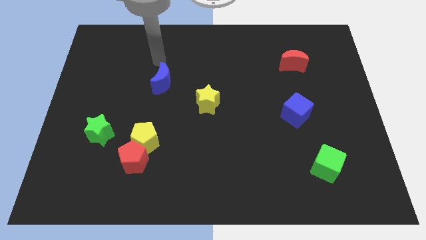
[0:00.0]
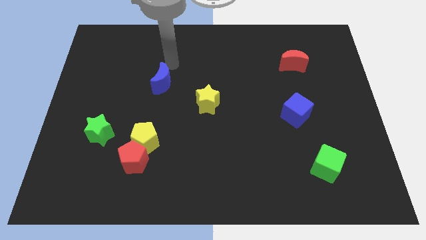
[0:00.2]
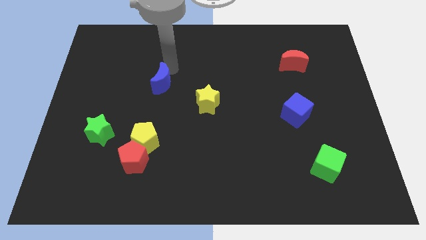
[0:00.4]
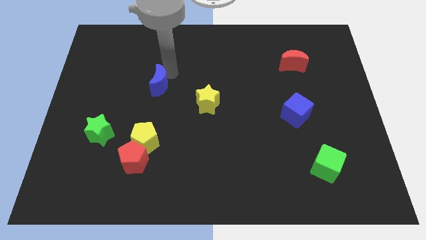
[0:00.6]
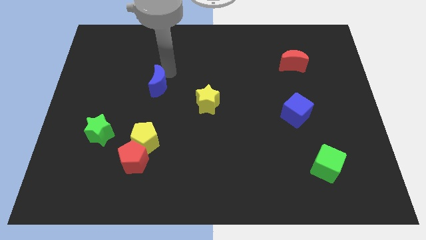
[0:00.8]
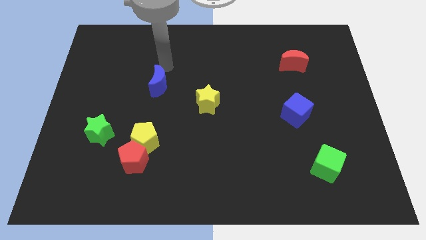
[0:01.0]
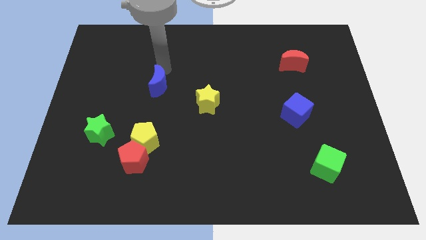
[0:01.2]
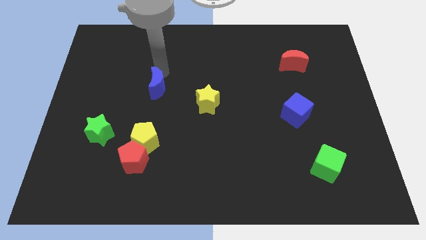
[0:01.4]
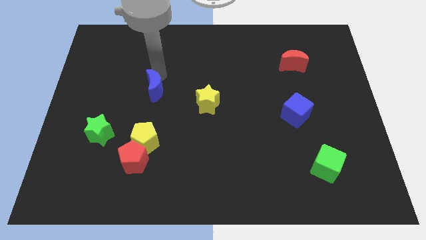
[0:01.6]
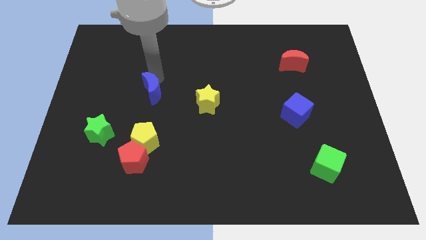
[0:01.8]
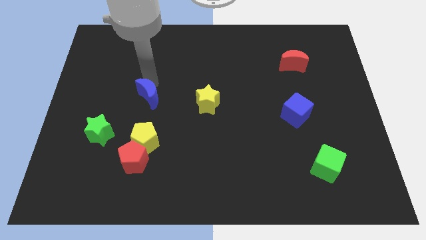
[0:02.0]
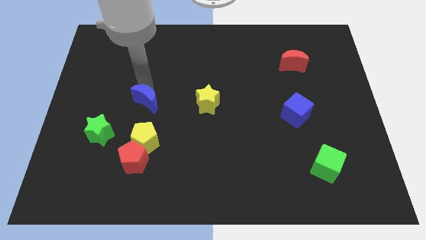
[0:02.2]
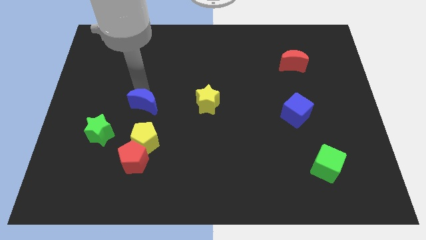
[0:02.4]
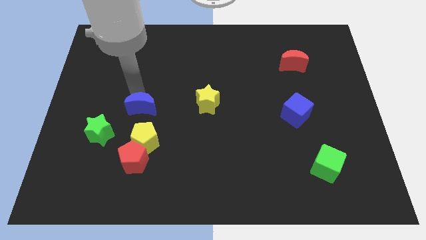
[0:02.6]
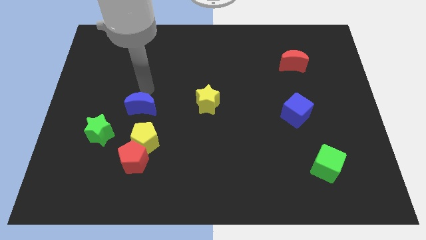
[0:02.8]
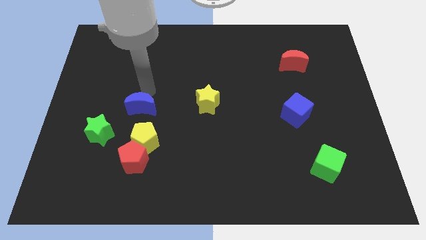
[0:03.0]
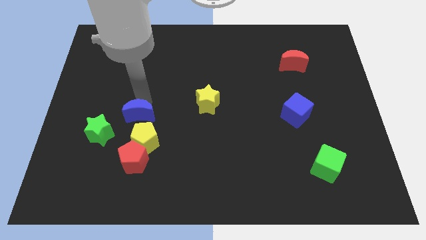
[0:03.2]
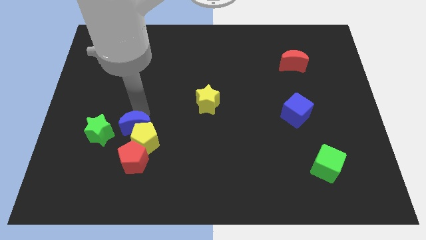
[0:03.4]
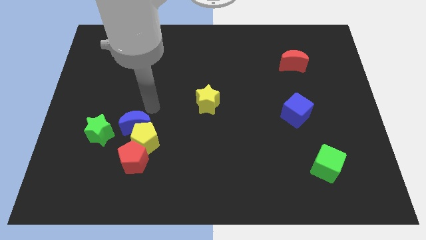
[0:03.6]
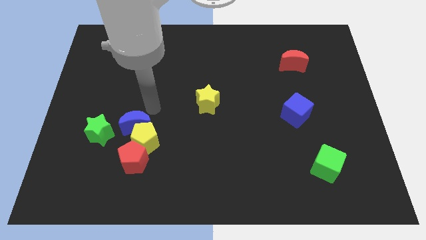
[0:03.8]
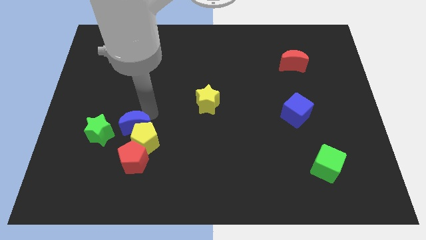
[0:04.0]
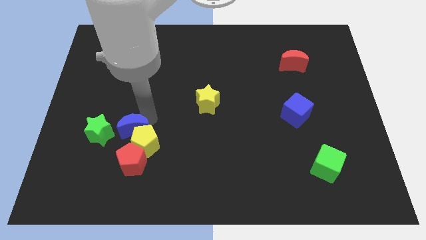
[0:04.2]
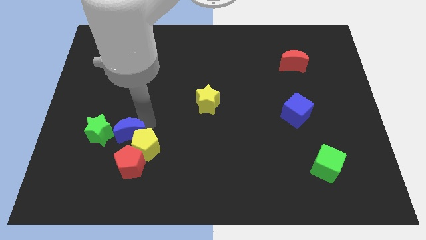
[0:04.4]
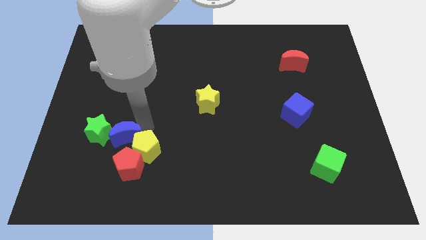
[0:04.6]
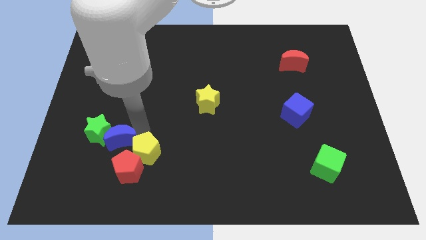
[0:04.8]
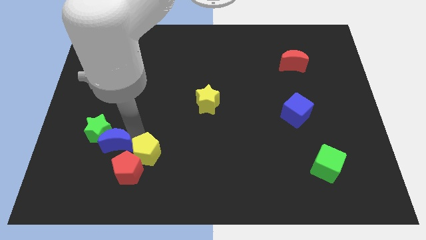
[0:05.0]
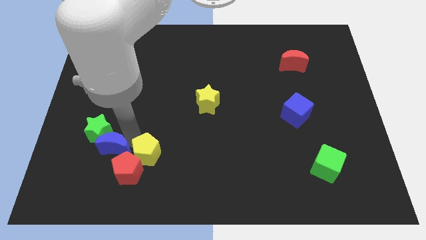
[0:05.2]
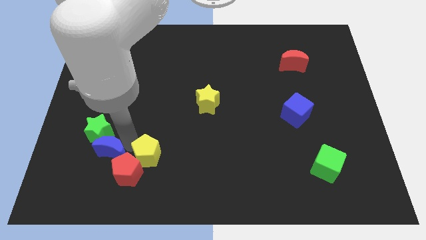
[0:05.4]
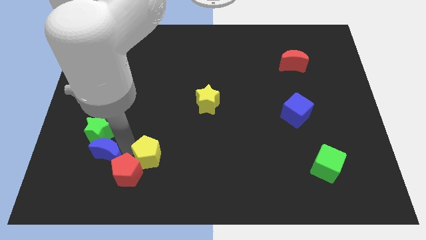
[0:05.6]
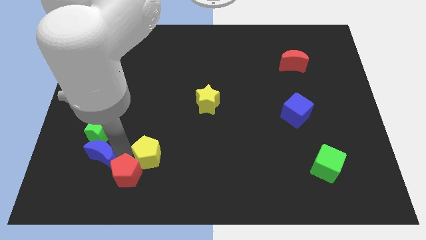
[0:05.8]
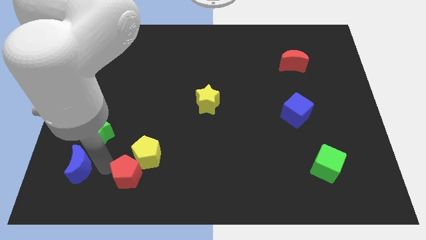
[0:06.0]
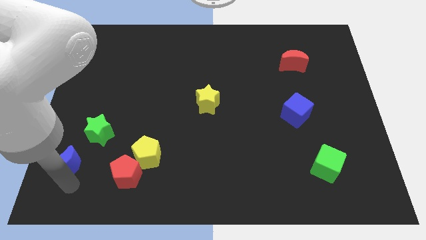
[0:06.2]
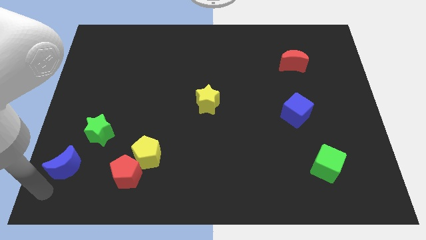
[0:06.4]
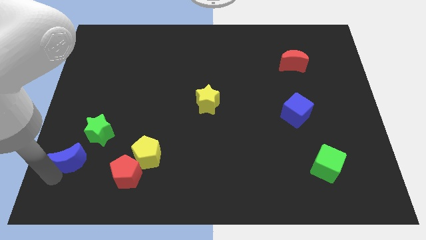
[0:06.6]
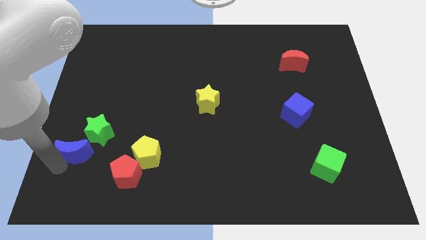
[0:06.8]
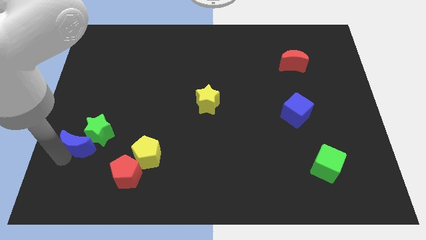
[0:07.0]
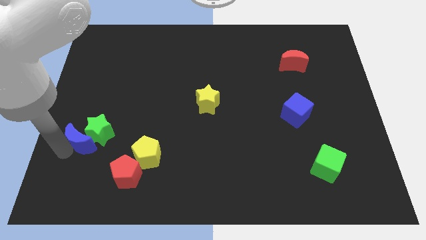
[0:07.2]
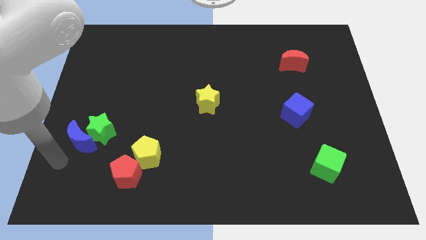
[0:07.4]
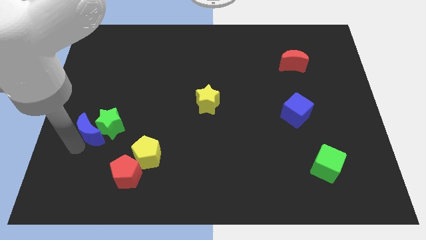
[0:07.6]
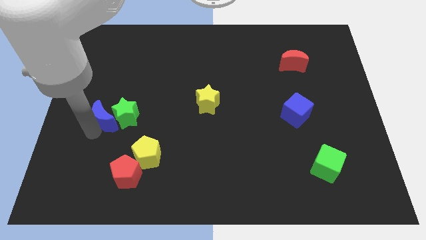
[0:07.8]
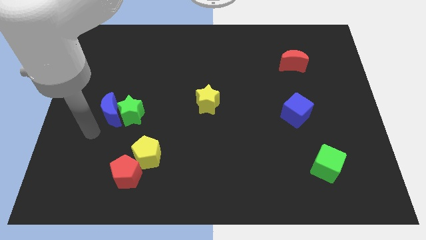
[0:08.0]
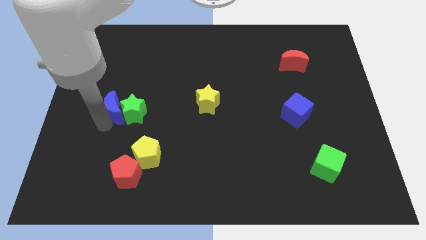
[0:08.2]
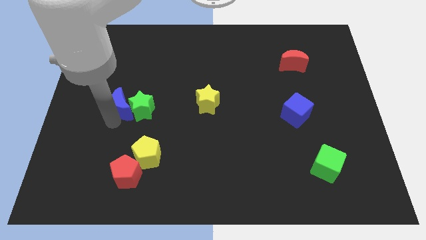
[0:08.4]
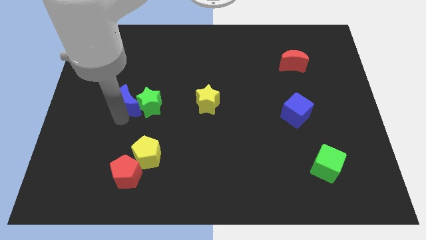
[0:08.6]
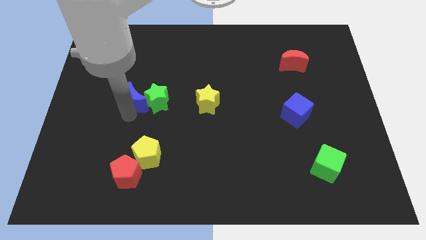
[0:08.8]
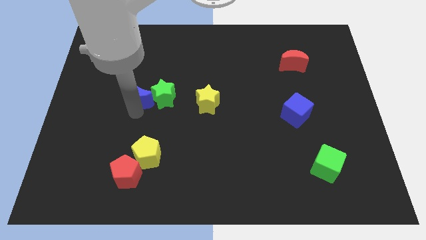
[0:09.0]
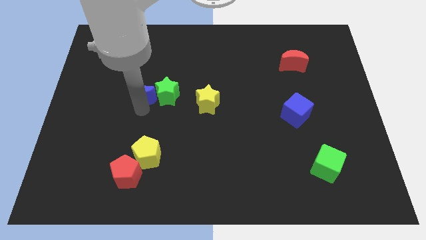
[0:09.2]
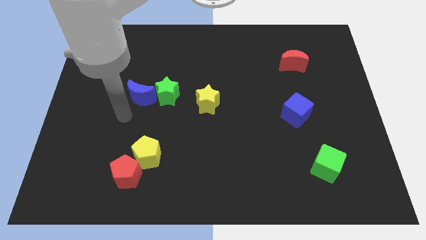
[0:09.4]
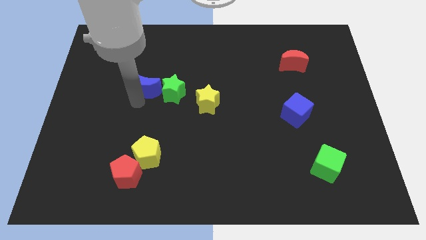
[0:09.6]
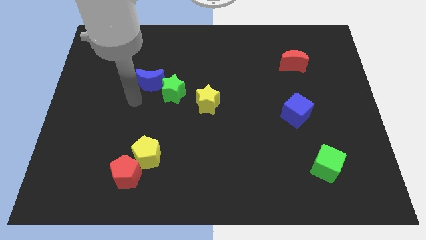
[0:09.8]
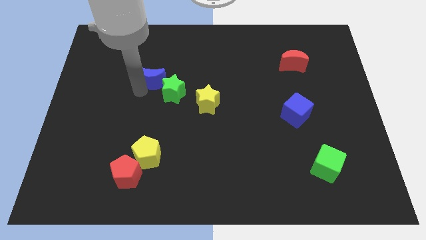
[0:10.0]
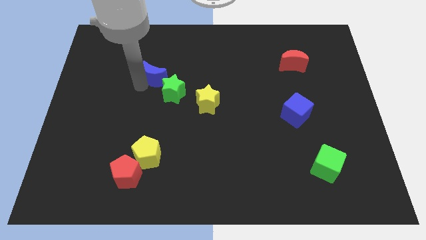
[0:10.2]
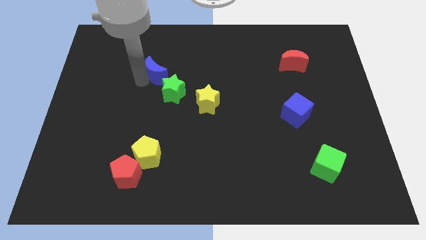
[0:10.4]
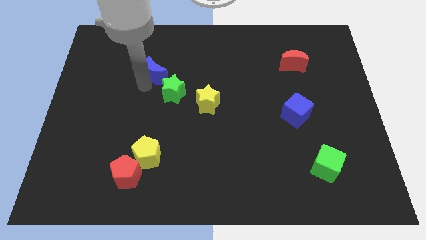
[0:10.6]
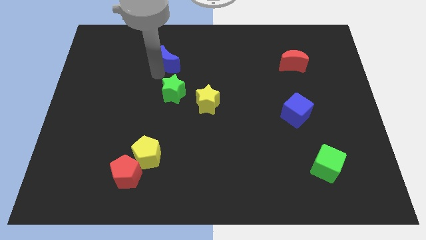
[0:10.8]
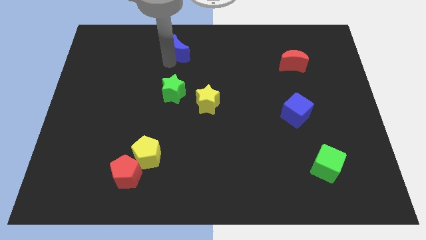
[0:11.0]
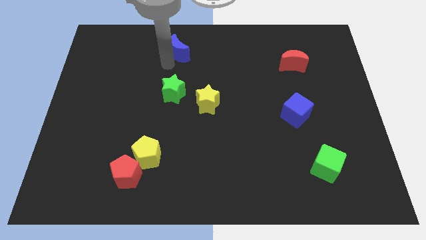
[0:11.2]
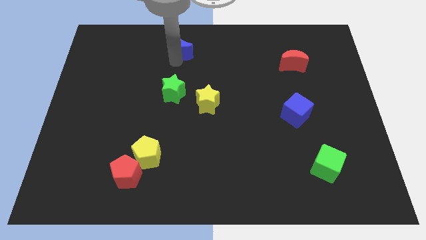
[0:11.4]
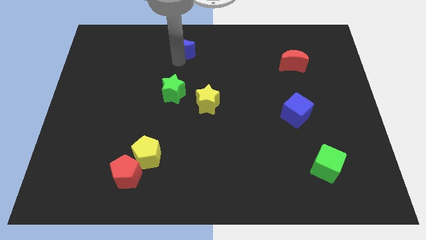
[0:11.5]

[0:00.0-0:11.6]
push the blue moon to the towards your base

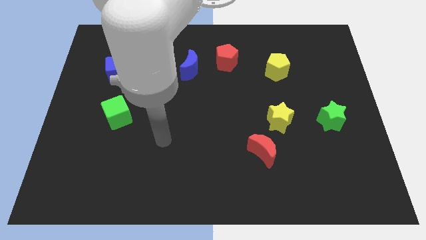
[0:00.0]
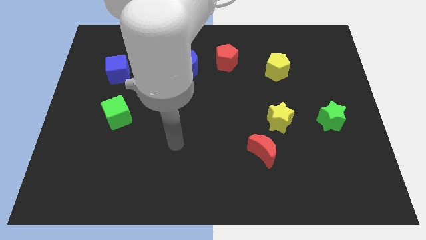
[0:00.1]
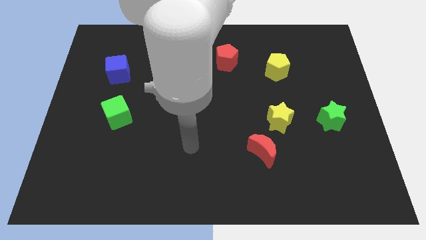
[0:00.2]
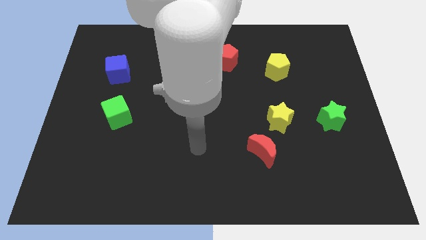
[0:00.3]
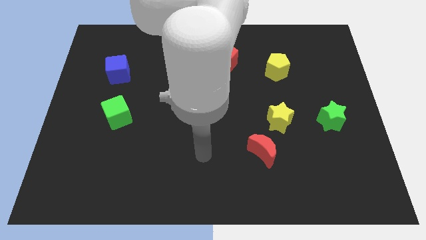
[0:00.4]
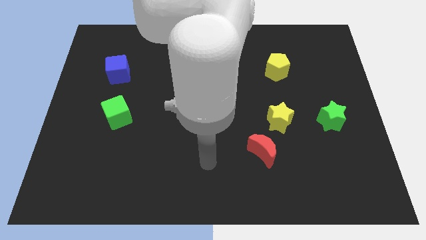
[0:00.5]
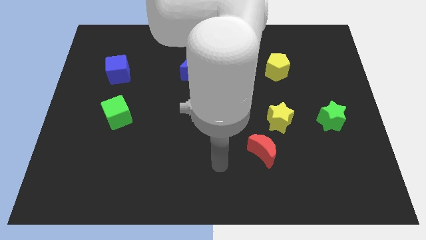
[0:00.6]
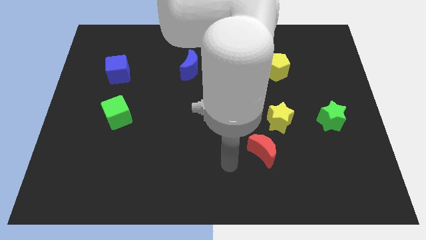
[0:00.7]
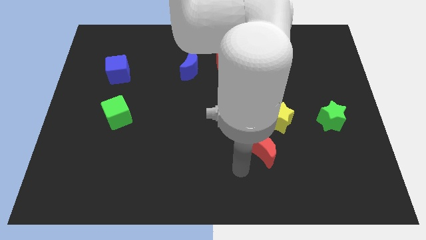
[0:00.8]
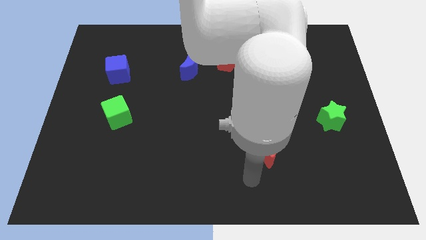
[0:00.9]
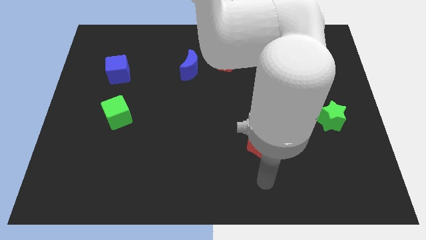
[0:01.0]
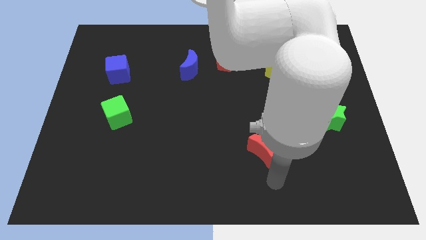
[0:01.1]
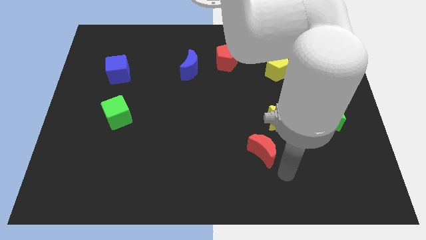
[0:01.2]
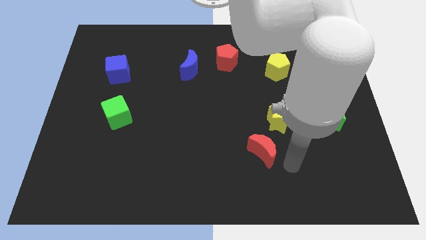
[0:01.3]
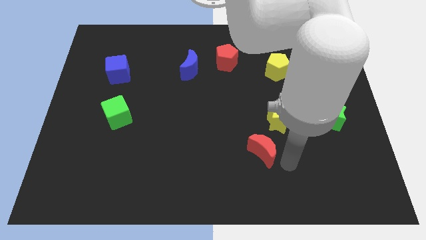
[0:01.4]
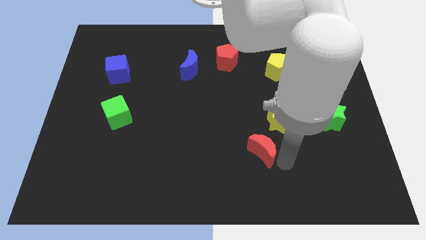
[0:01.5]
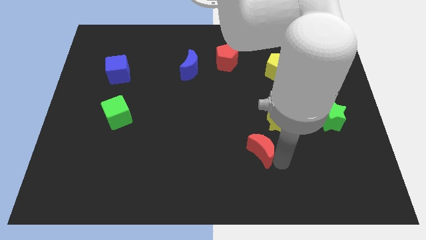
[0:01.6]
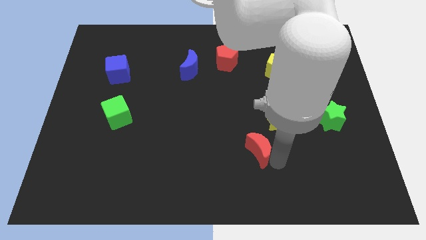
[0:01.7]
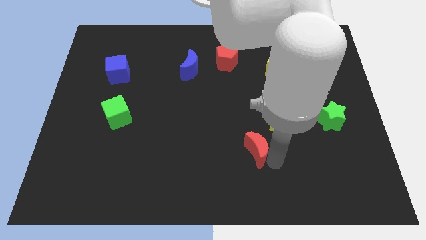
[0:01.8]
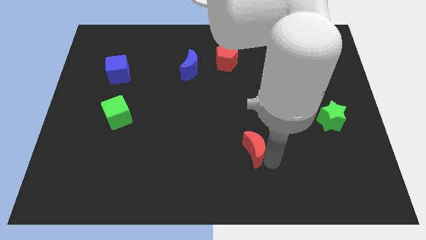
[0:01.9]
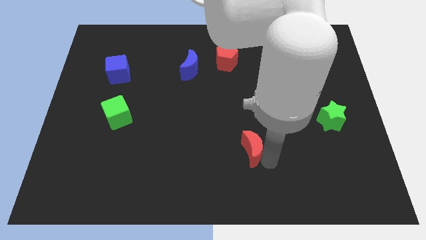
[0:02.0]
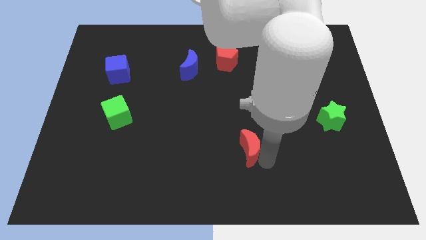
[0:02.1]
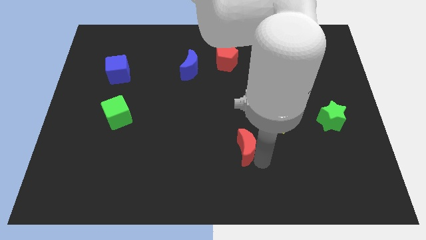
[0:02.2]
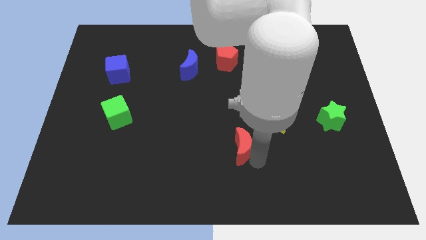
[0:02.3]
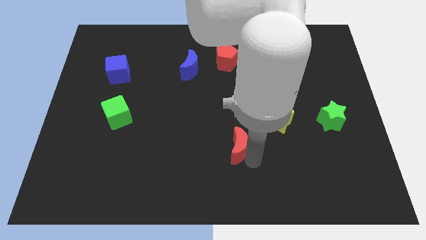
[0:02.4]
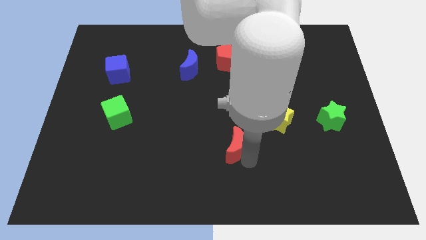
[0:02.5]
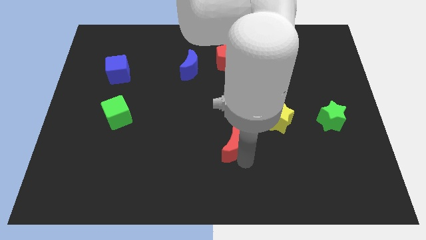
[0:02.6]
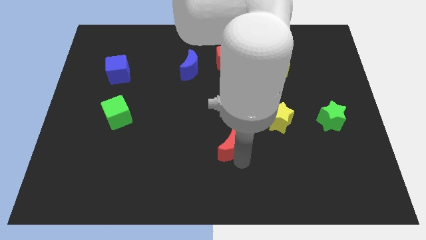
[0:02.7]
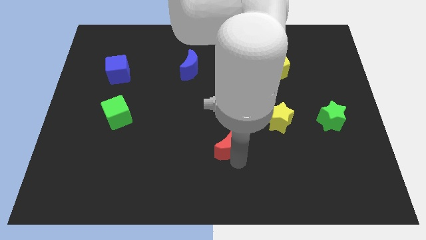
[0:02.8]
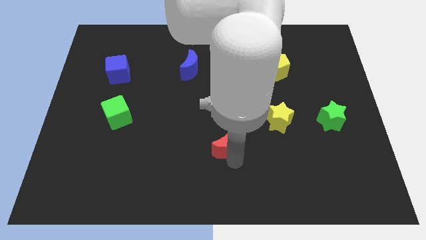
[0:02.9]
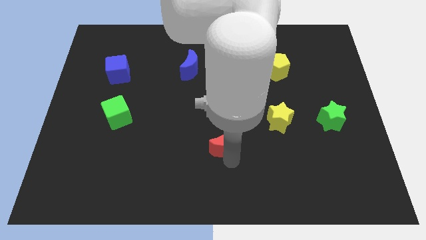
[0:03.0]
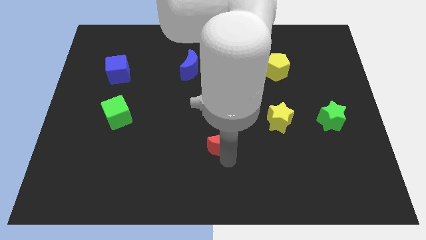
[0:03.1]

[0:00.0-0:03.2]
move the red moon to the center
